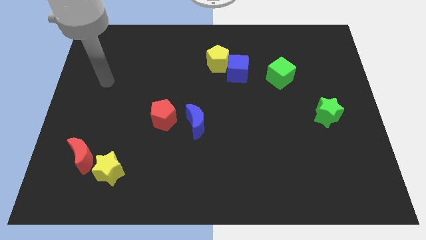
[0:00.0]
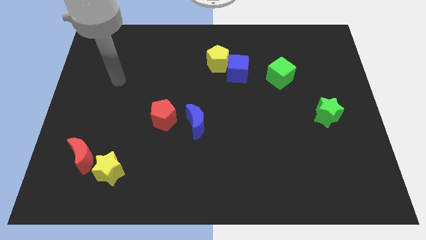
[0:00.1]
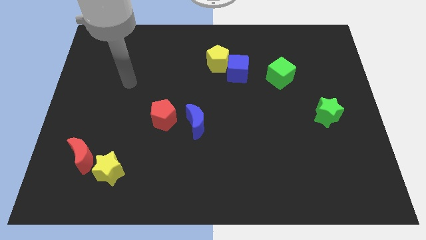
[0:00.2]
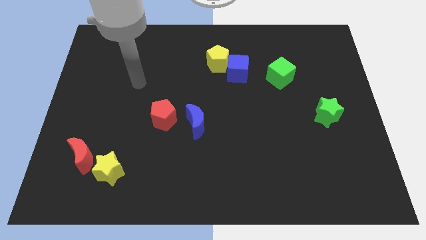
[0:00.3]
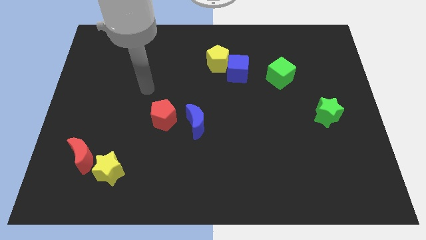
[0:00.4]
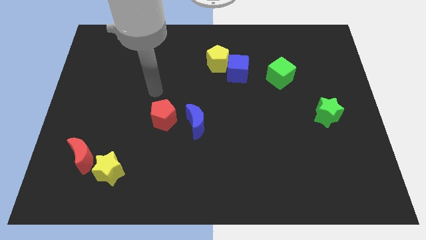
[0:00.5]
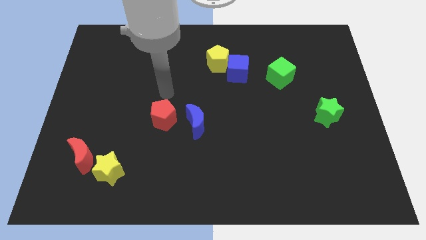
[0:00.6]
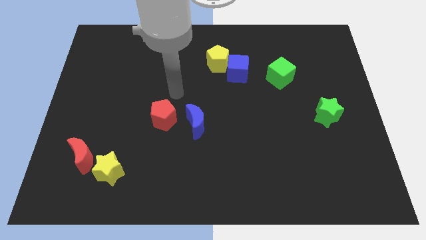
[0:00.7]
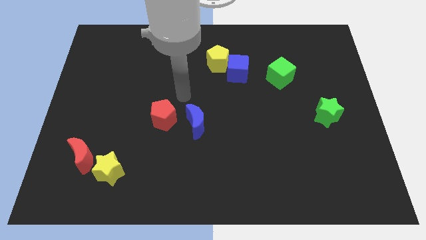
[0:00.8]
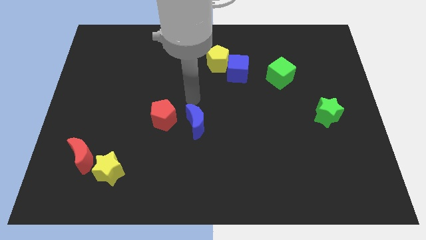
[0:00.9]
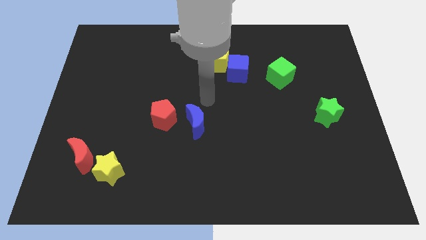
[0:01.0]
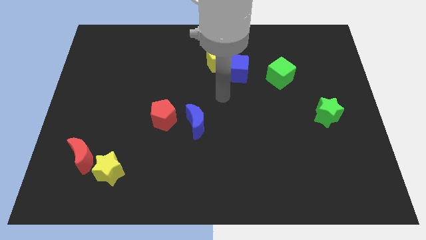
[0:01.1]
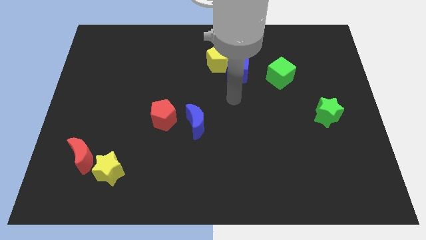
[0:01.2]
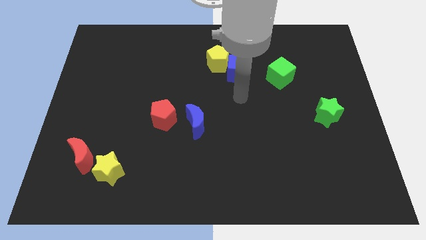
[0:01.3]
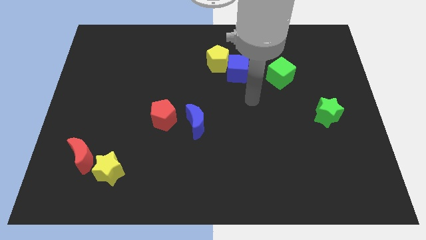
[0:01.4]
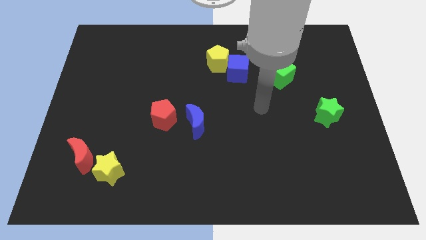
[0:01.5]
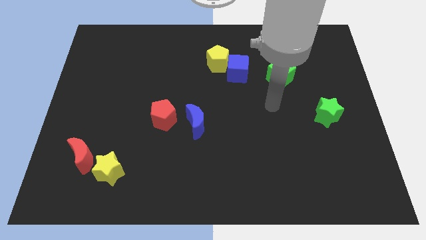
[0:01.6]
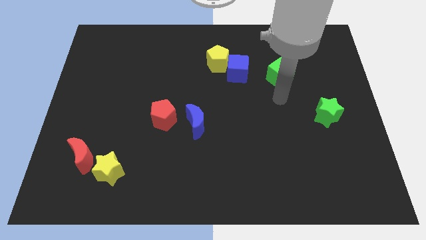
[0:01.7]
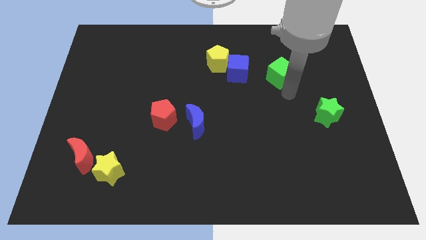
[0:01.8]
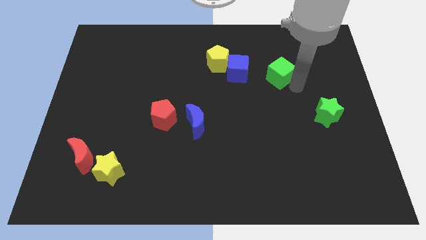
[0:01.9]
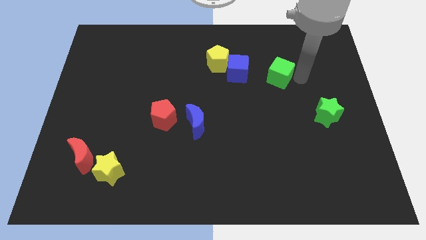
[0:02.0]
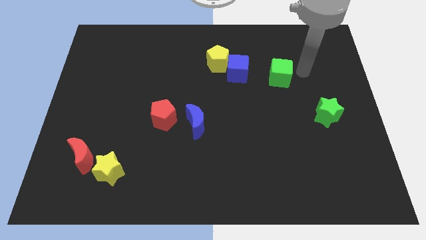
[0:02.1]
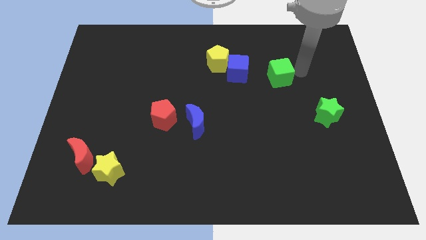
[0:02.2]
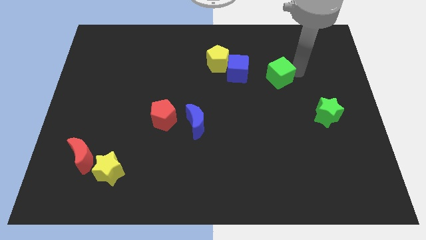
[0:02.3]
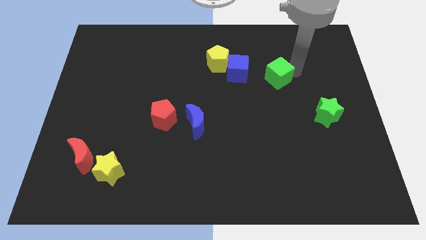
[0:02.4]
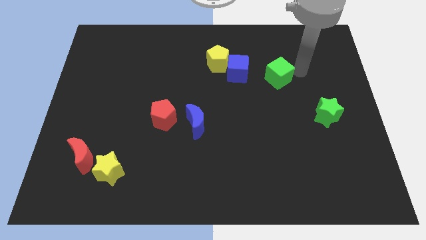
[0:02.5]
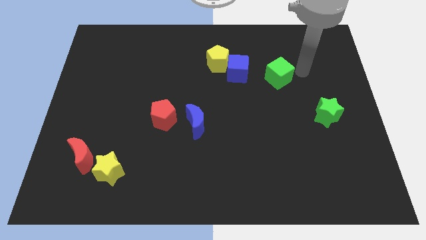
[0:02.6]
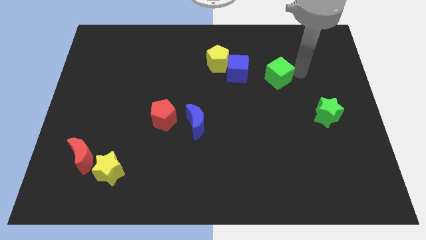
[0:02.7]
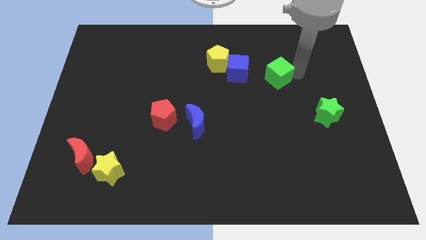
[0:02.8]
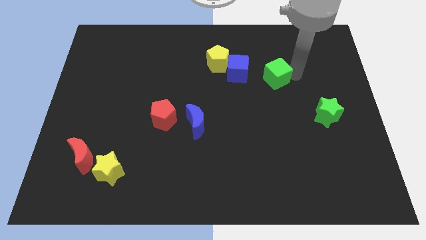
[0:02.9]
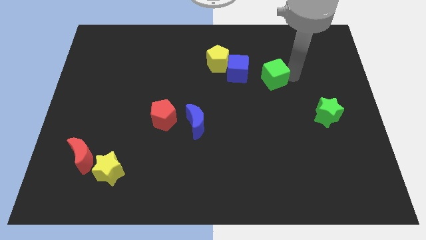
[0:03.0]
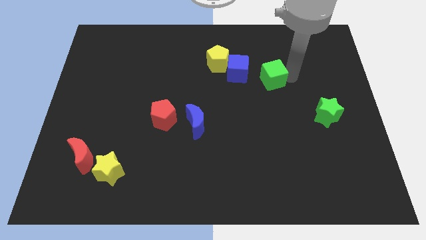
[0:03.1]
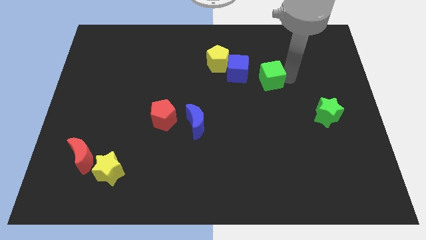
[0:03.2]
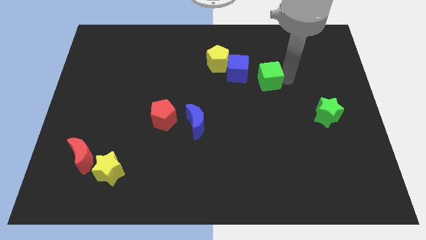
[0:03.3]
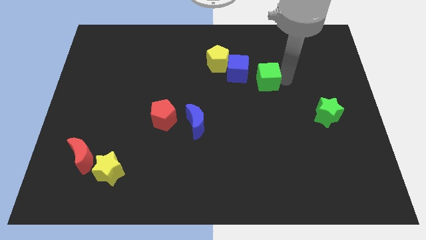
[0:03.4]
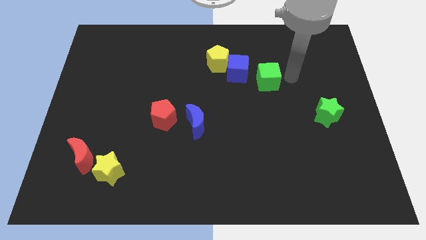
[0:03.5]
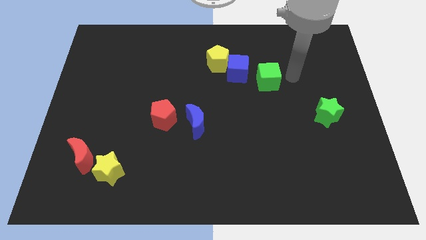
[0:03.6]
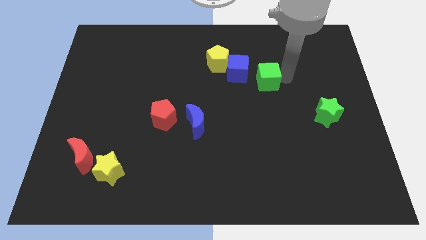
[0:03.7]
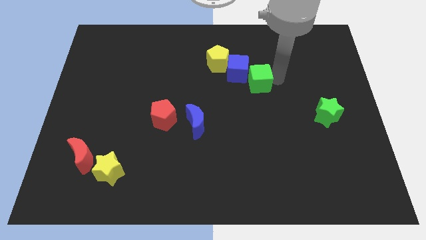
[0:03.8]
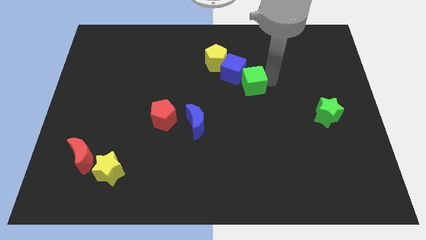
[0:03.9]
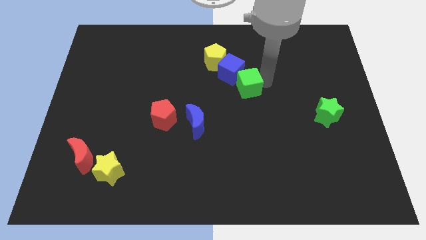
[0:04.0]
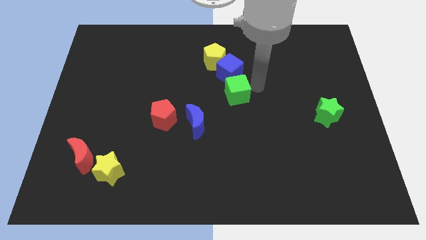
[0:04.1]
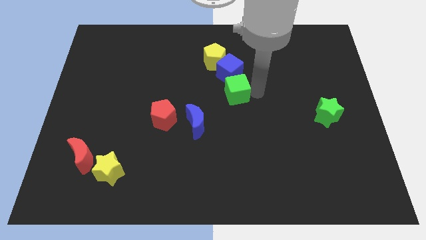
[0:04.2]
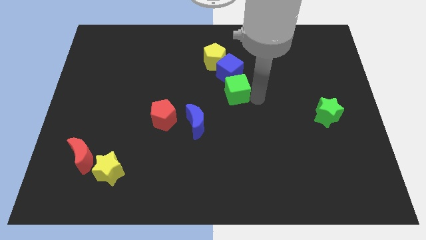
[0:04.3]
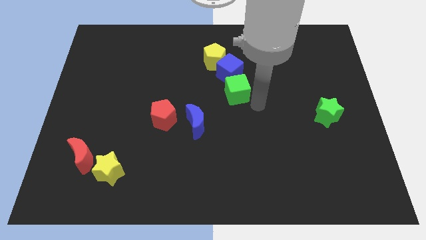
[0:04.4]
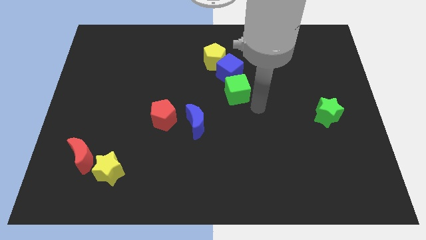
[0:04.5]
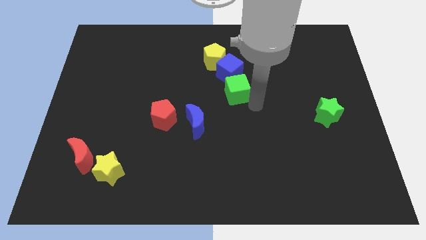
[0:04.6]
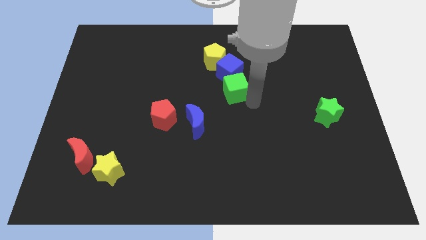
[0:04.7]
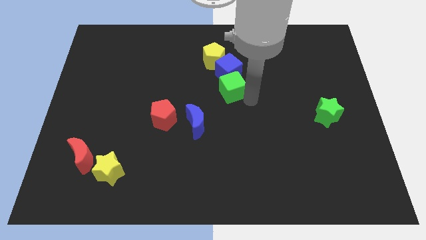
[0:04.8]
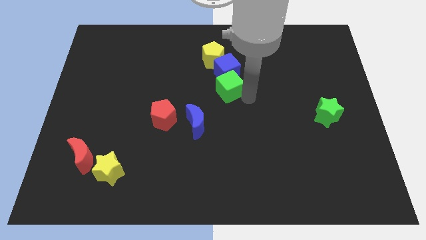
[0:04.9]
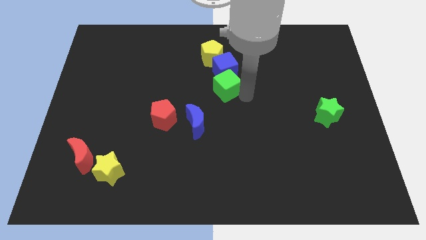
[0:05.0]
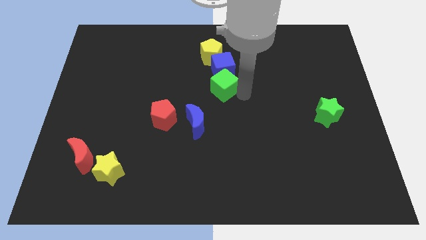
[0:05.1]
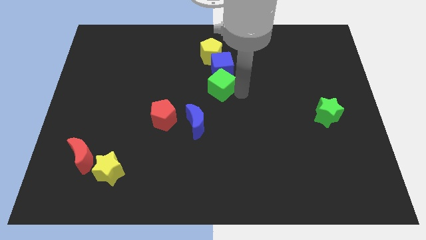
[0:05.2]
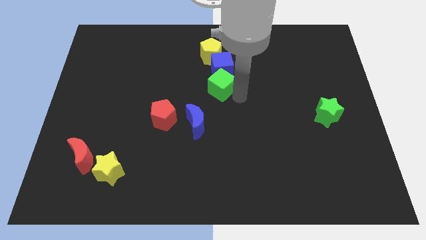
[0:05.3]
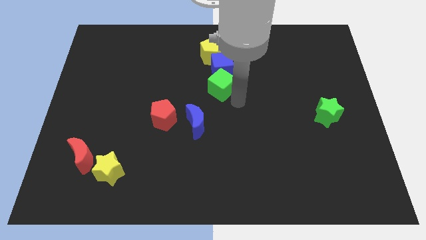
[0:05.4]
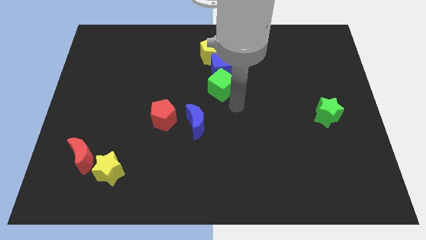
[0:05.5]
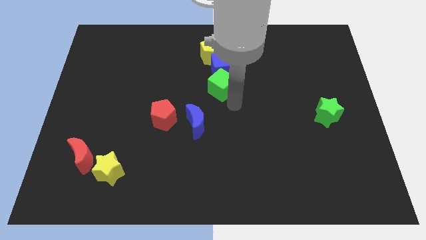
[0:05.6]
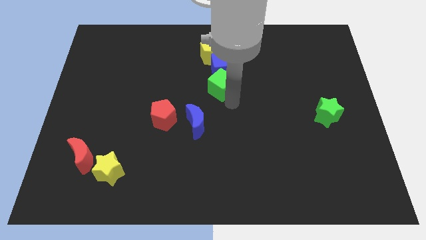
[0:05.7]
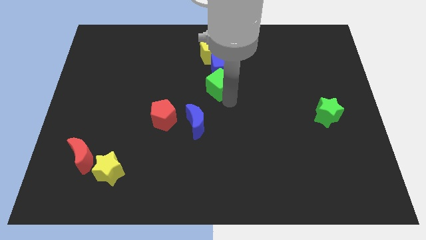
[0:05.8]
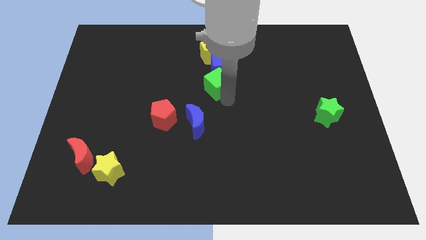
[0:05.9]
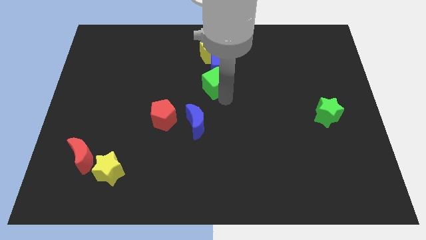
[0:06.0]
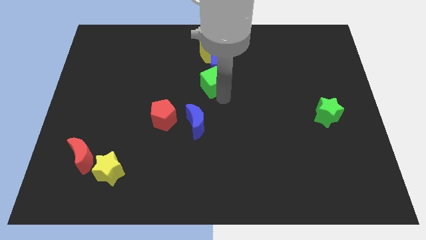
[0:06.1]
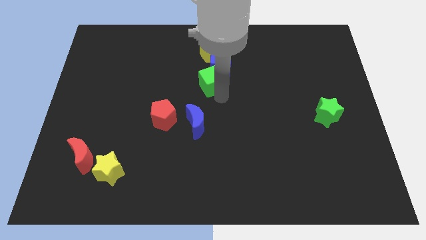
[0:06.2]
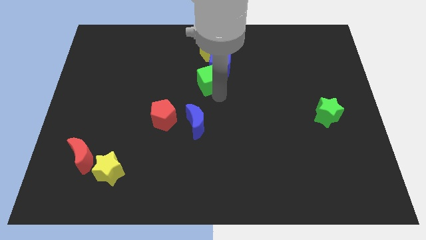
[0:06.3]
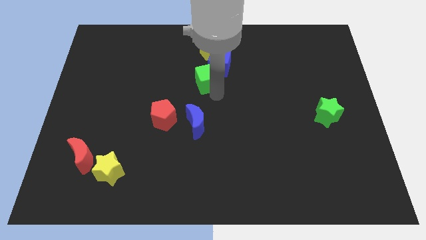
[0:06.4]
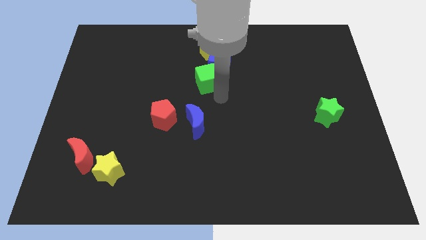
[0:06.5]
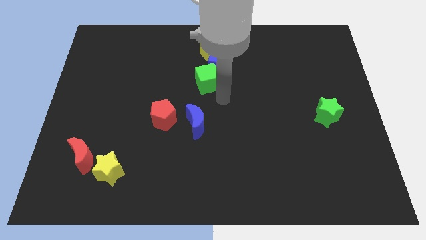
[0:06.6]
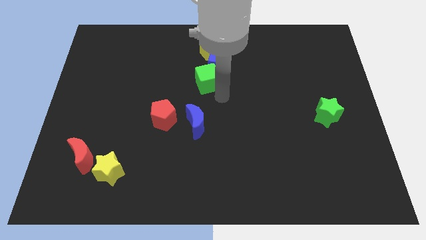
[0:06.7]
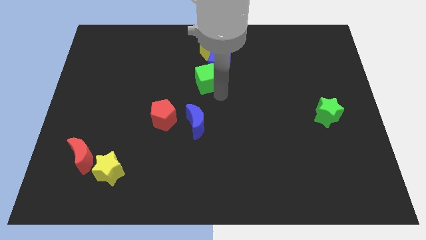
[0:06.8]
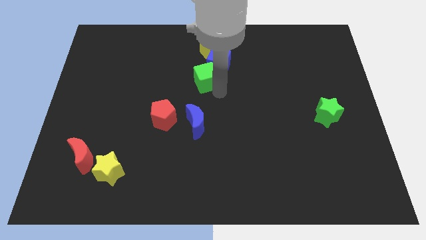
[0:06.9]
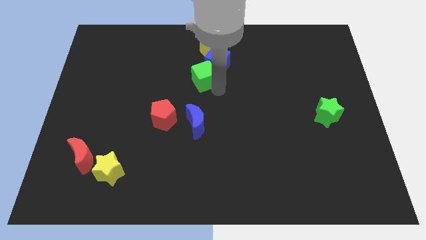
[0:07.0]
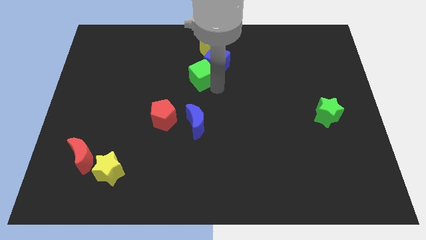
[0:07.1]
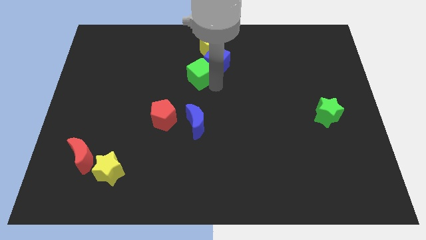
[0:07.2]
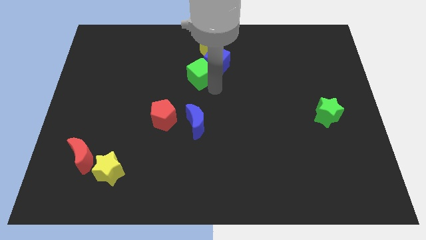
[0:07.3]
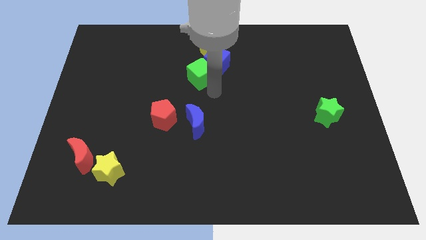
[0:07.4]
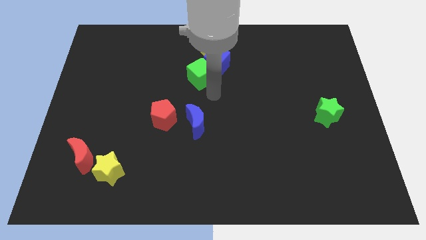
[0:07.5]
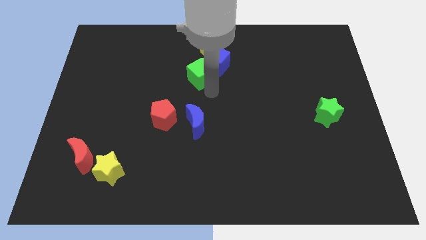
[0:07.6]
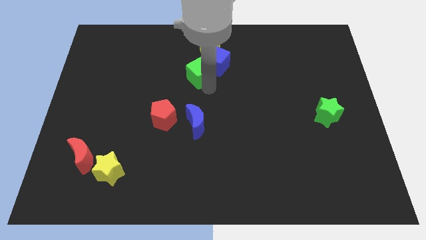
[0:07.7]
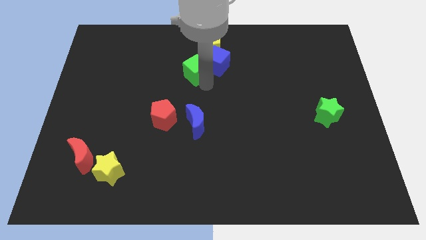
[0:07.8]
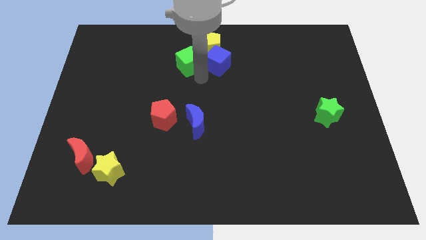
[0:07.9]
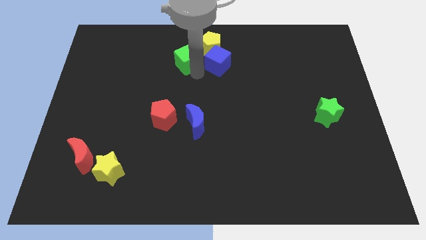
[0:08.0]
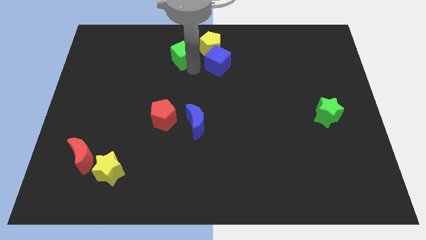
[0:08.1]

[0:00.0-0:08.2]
put the green cube left of the yellow pentagon
